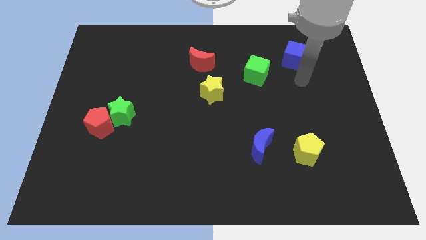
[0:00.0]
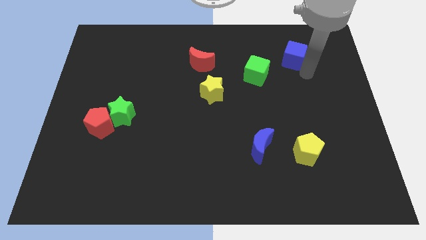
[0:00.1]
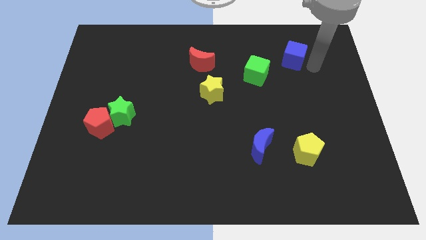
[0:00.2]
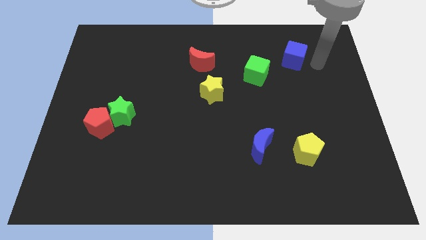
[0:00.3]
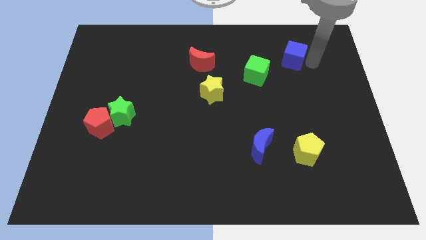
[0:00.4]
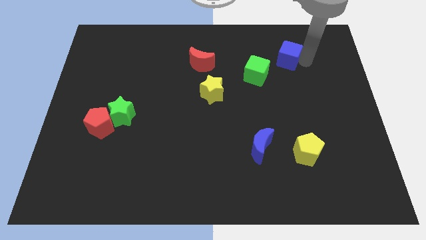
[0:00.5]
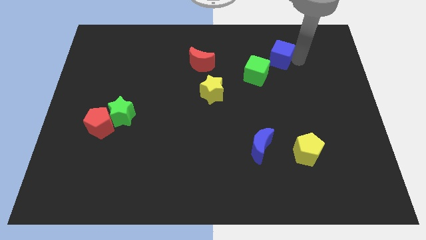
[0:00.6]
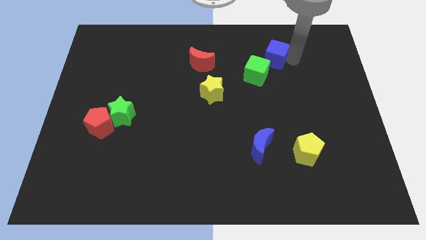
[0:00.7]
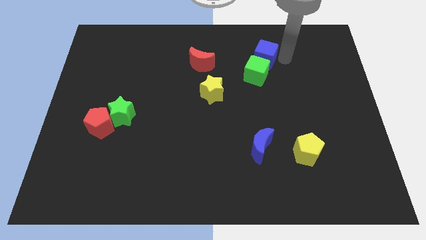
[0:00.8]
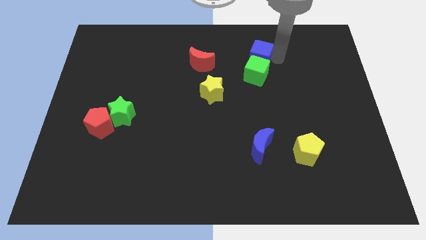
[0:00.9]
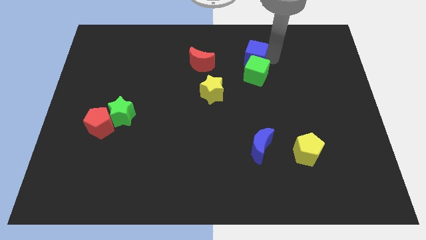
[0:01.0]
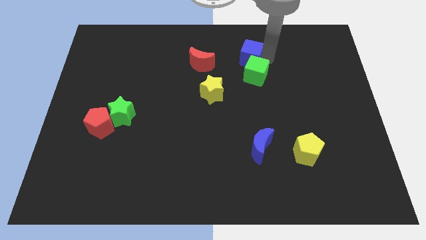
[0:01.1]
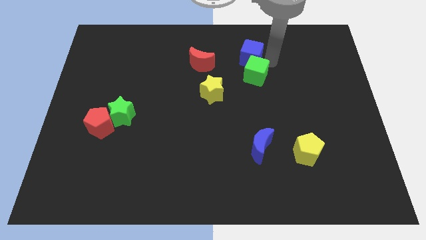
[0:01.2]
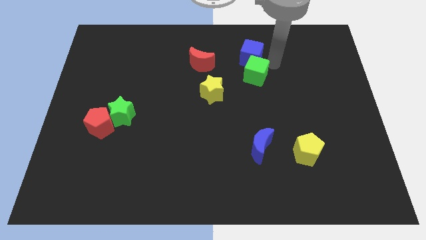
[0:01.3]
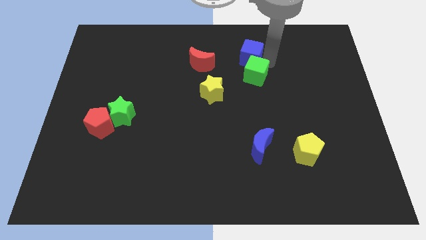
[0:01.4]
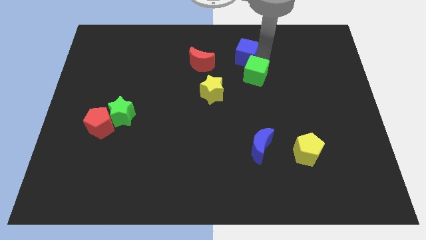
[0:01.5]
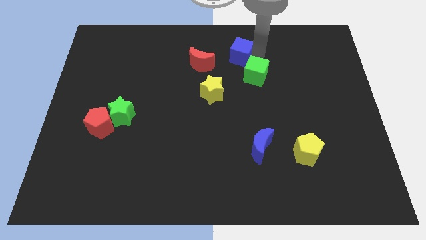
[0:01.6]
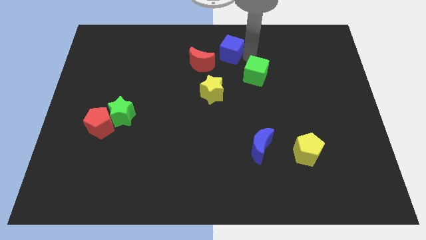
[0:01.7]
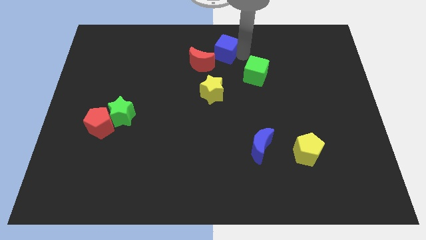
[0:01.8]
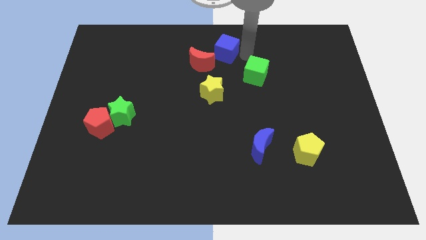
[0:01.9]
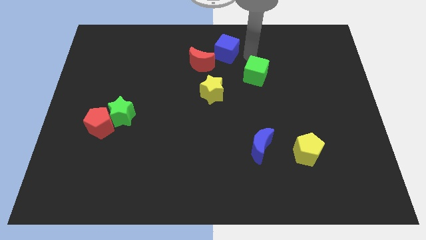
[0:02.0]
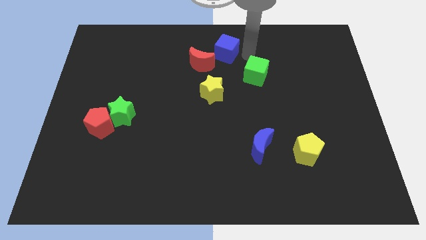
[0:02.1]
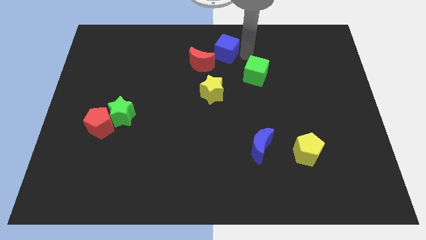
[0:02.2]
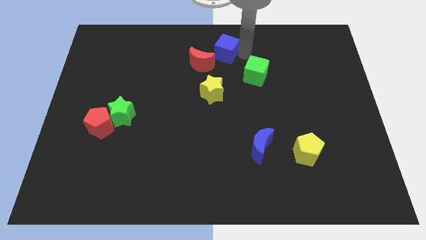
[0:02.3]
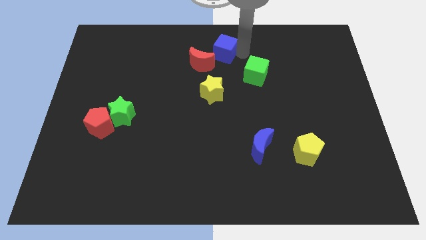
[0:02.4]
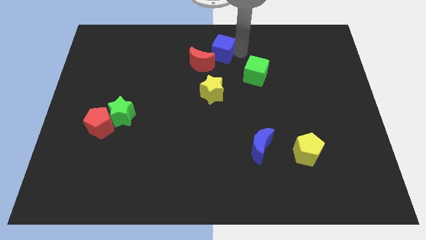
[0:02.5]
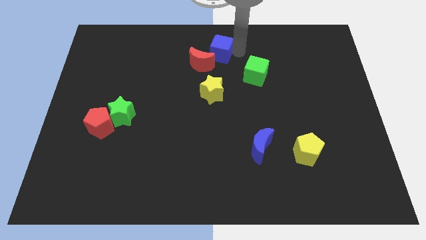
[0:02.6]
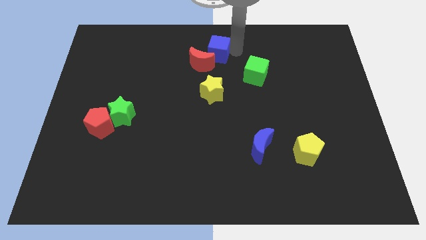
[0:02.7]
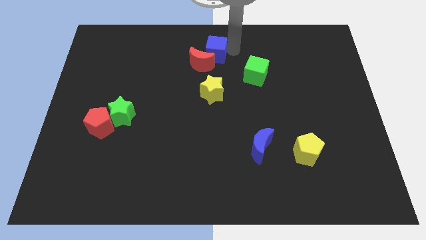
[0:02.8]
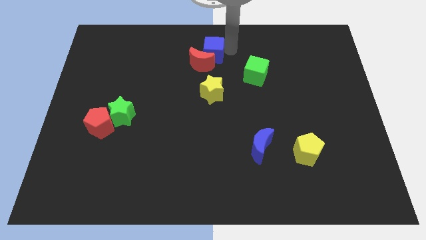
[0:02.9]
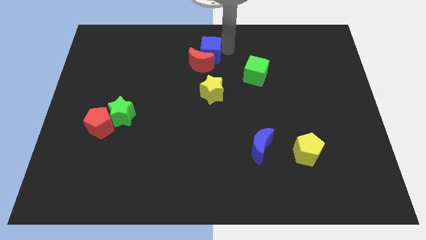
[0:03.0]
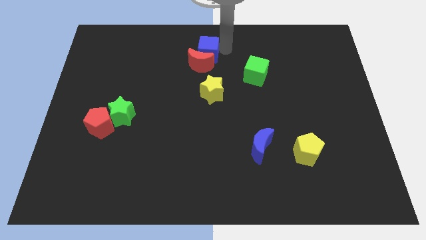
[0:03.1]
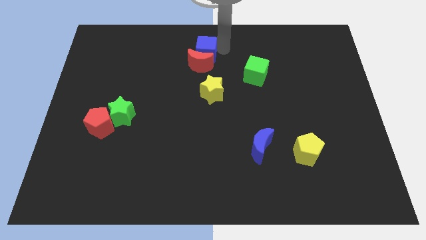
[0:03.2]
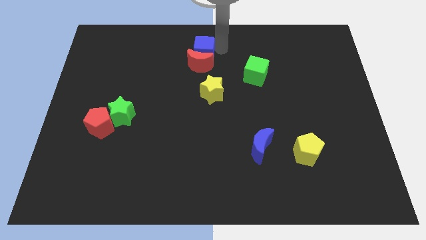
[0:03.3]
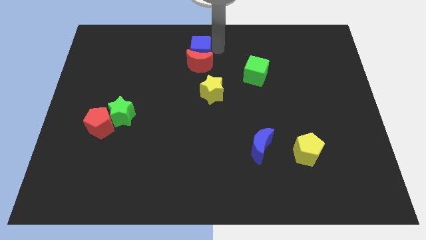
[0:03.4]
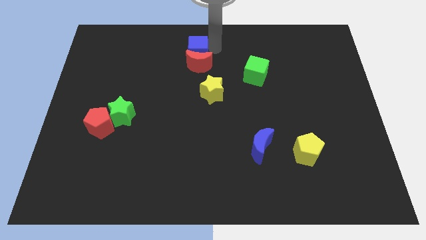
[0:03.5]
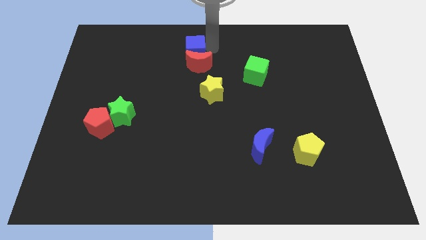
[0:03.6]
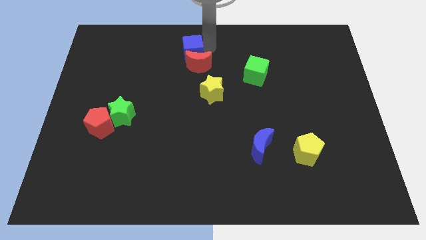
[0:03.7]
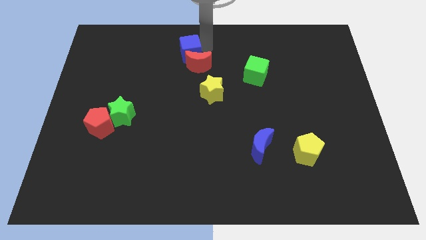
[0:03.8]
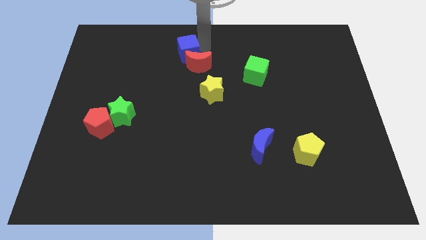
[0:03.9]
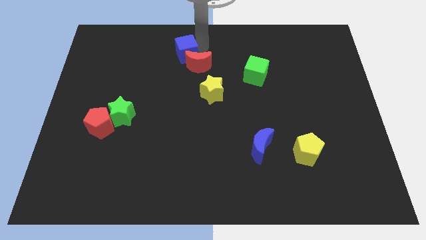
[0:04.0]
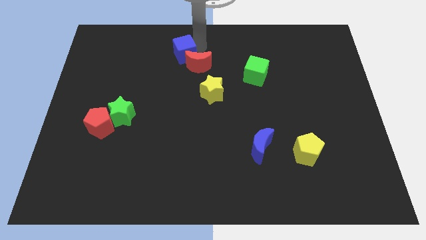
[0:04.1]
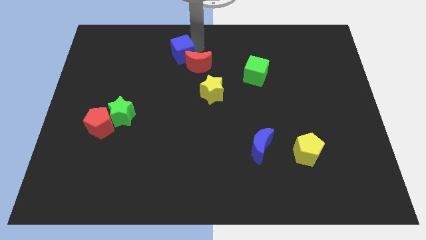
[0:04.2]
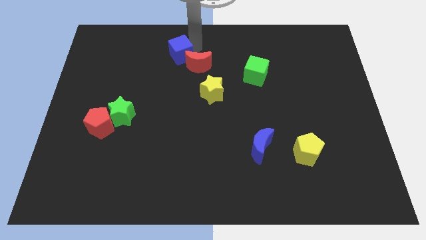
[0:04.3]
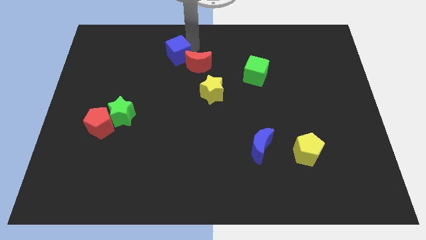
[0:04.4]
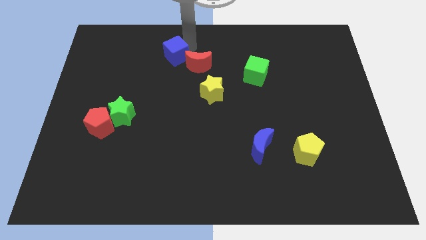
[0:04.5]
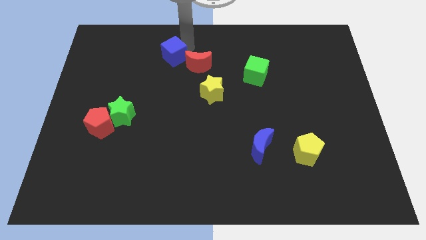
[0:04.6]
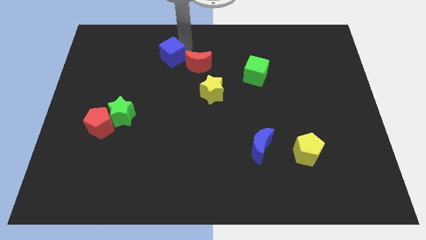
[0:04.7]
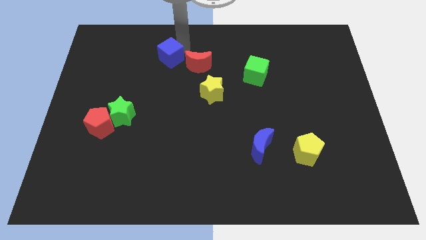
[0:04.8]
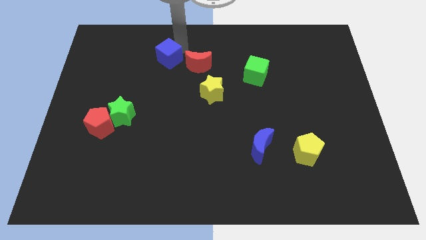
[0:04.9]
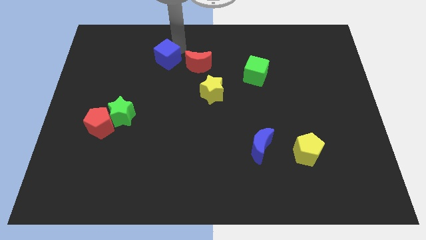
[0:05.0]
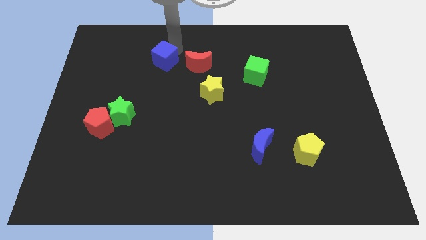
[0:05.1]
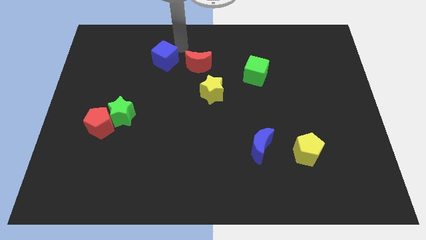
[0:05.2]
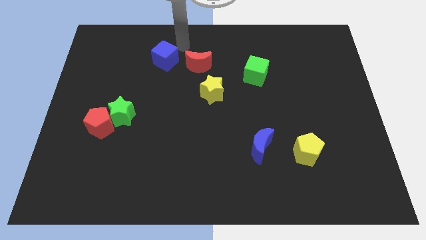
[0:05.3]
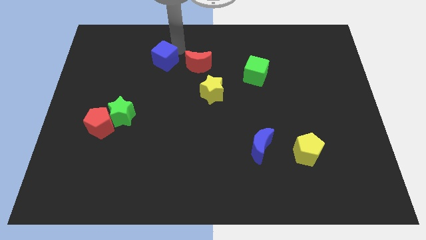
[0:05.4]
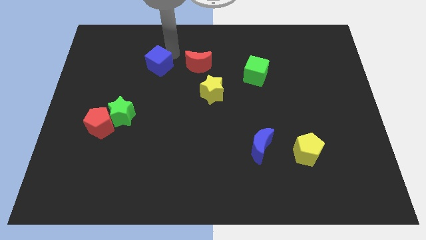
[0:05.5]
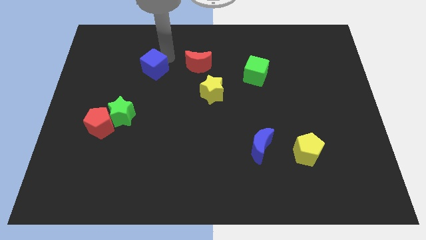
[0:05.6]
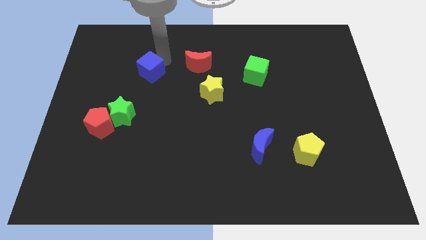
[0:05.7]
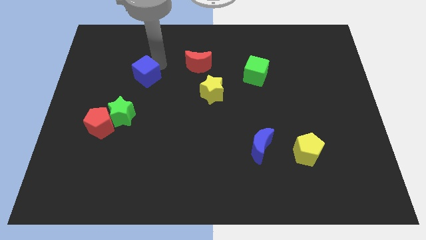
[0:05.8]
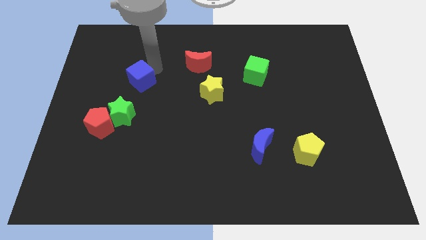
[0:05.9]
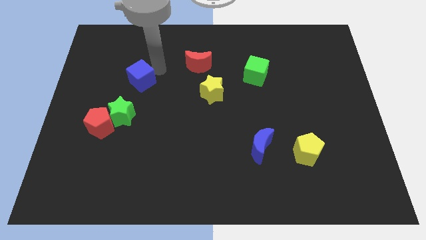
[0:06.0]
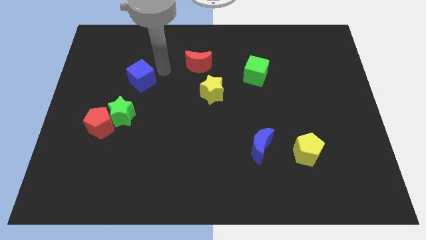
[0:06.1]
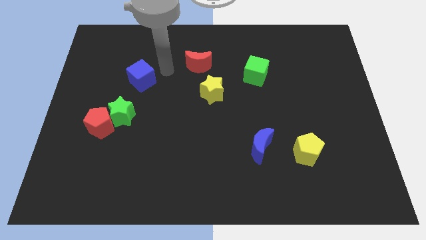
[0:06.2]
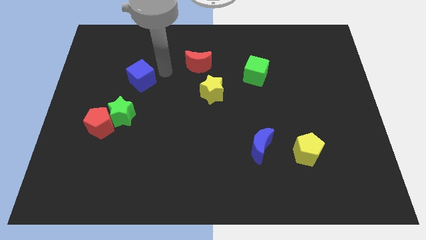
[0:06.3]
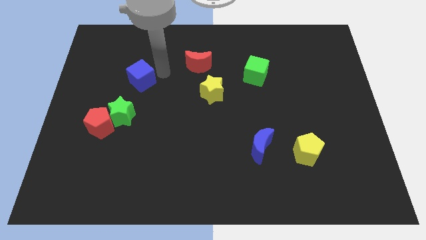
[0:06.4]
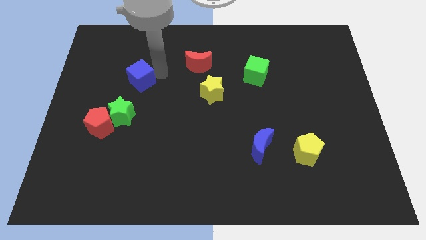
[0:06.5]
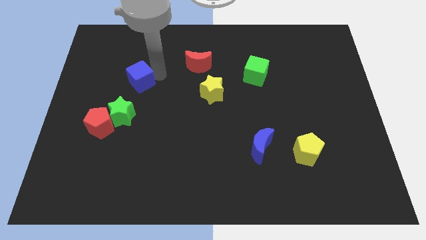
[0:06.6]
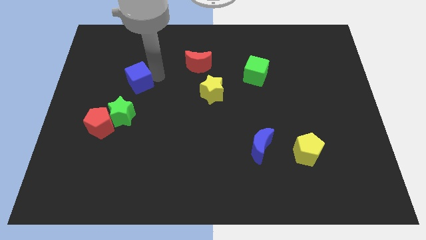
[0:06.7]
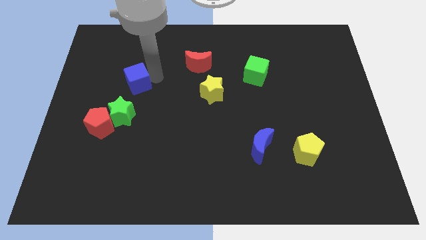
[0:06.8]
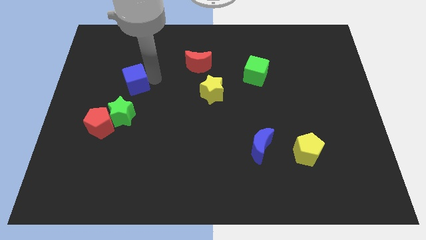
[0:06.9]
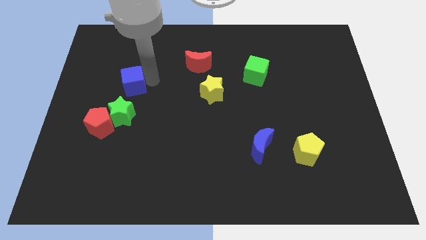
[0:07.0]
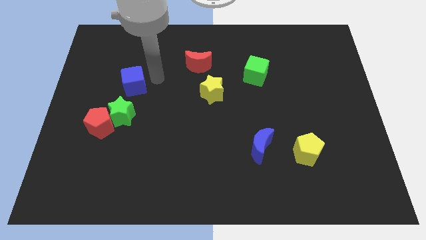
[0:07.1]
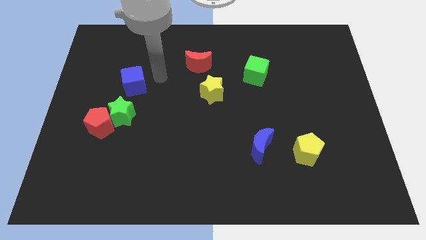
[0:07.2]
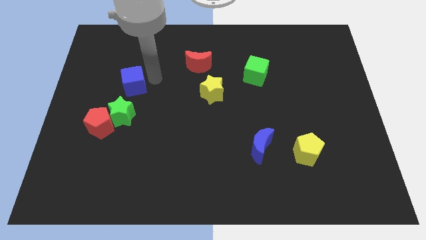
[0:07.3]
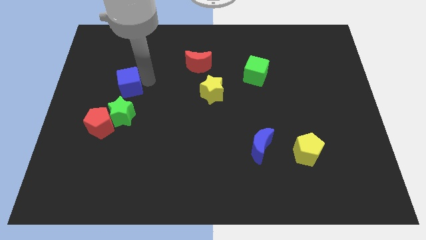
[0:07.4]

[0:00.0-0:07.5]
push the blue cube above the red pentagon
